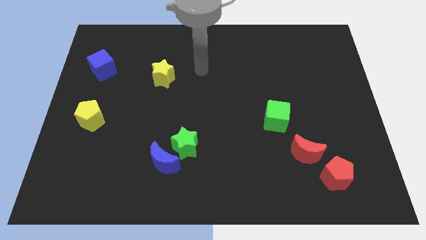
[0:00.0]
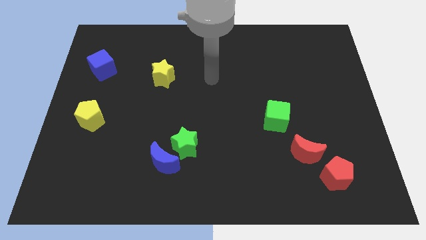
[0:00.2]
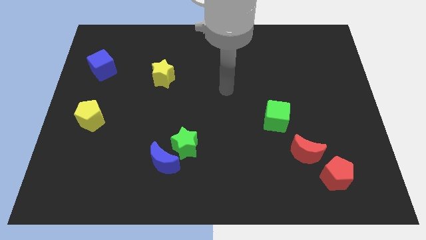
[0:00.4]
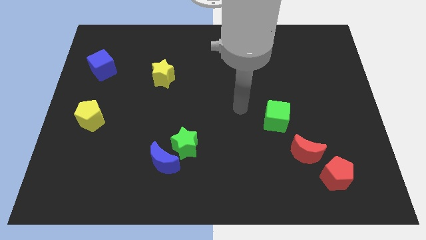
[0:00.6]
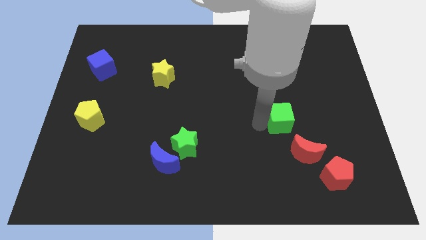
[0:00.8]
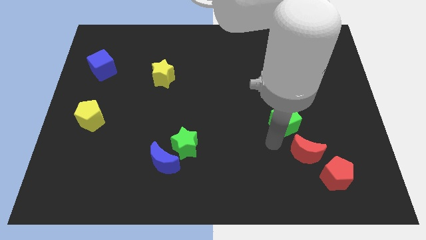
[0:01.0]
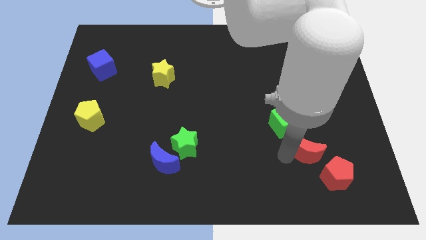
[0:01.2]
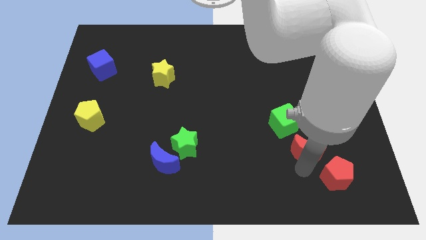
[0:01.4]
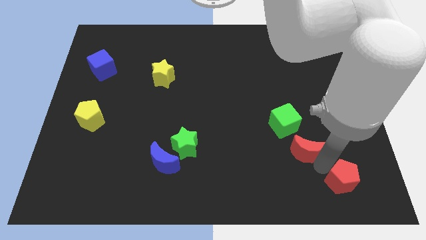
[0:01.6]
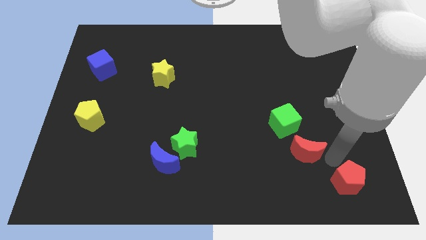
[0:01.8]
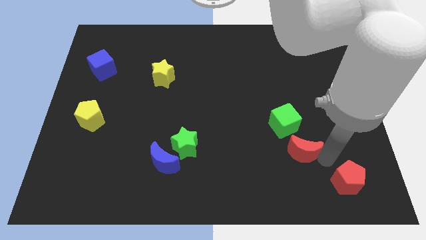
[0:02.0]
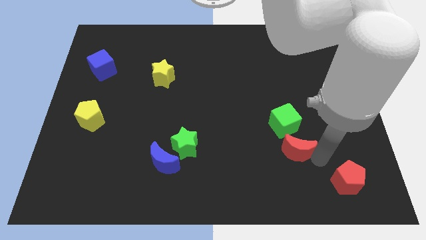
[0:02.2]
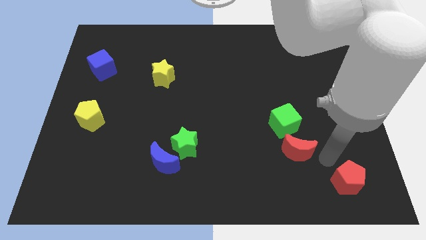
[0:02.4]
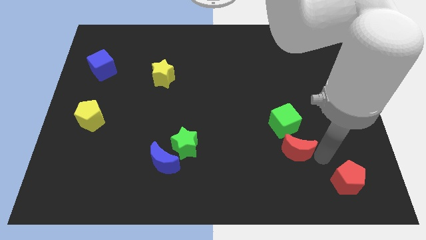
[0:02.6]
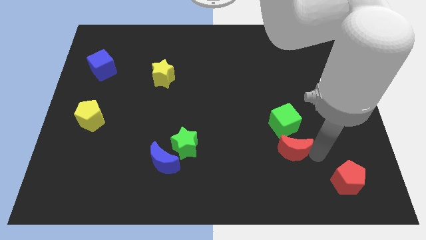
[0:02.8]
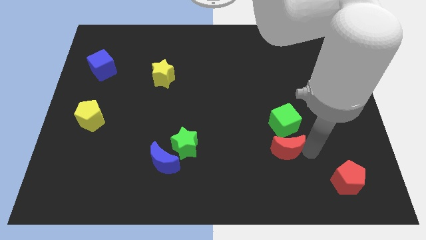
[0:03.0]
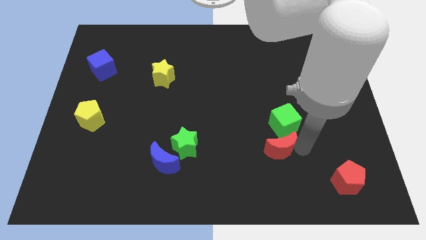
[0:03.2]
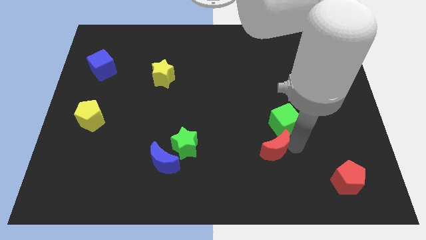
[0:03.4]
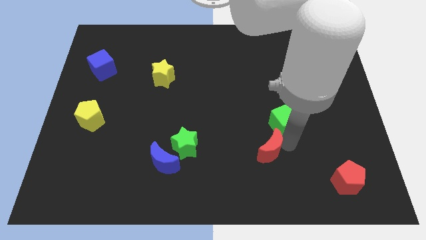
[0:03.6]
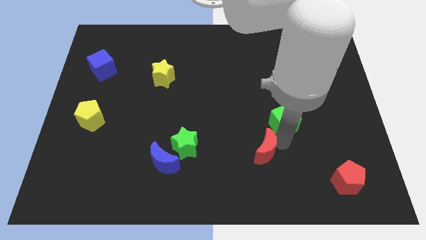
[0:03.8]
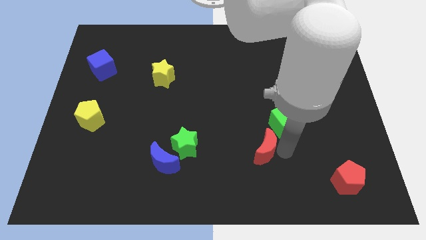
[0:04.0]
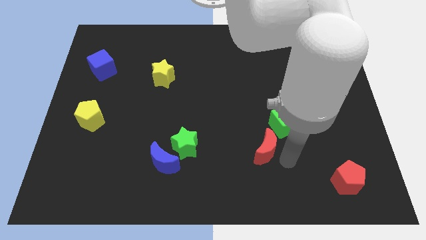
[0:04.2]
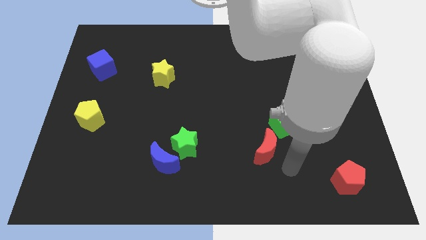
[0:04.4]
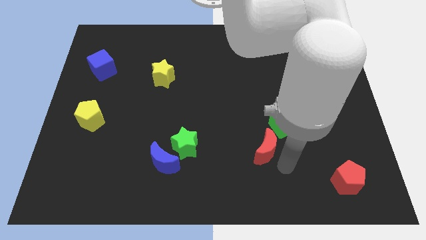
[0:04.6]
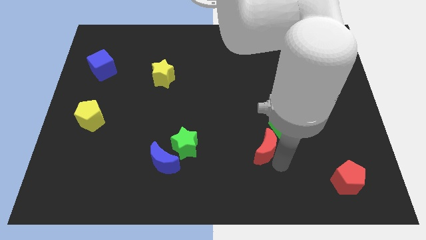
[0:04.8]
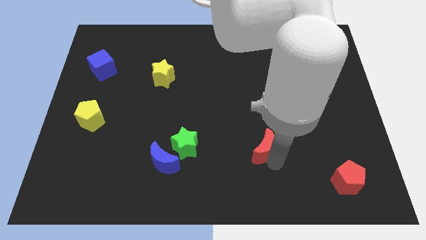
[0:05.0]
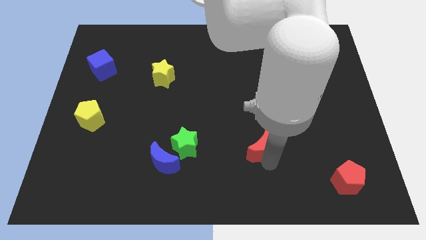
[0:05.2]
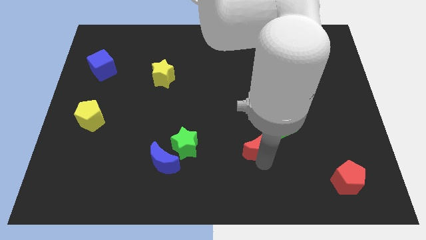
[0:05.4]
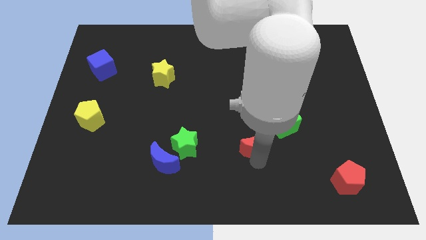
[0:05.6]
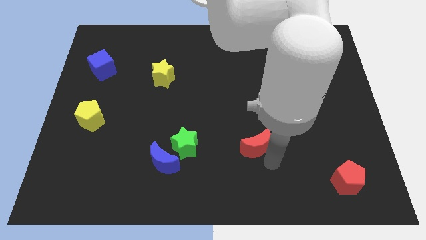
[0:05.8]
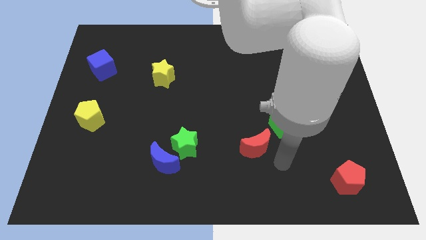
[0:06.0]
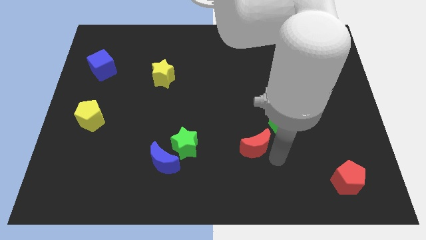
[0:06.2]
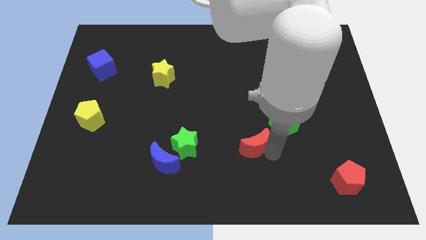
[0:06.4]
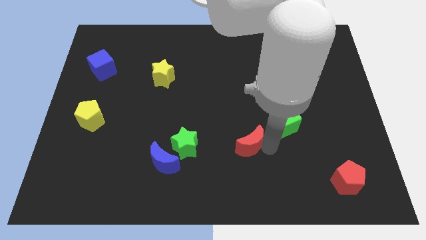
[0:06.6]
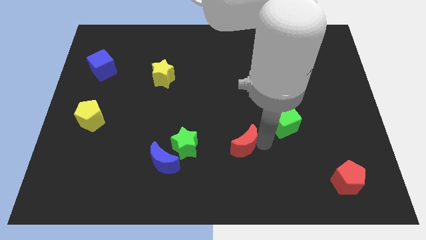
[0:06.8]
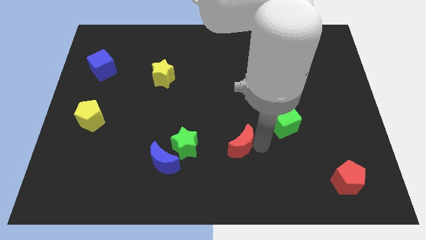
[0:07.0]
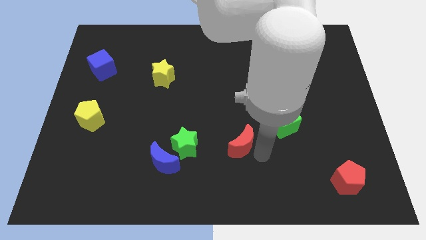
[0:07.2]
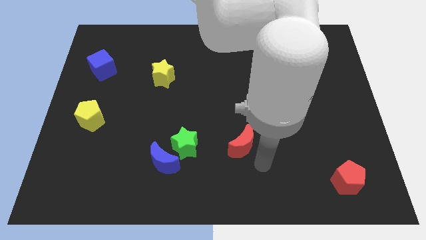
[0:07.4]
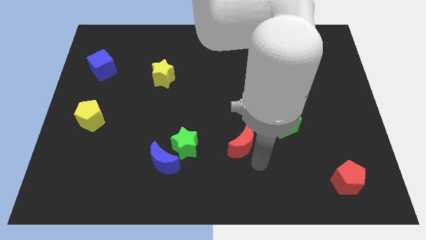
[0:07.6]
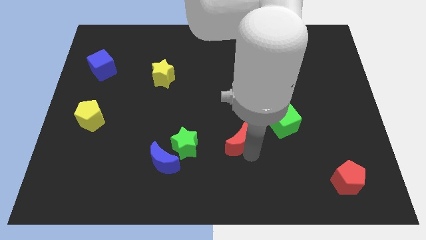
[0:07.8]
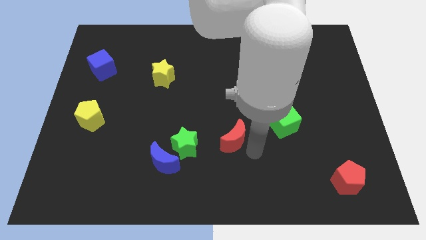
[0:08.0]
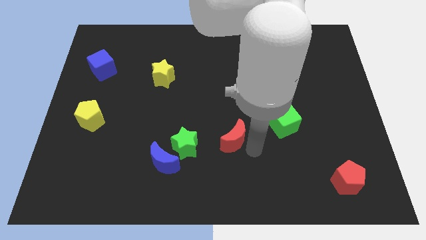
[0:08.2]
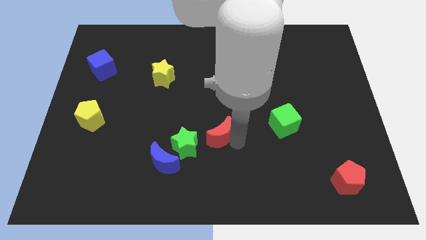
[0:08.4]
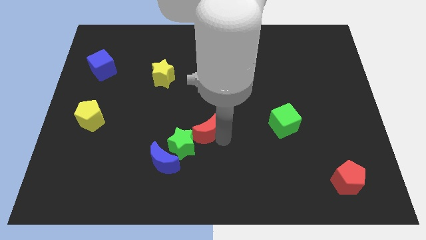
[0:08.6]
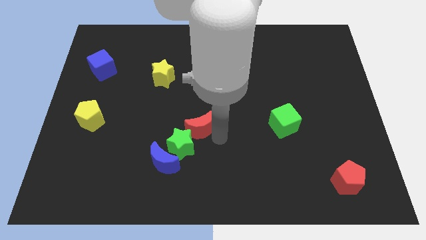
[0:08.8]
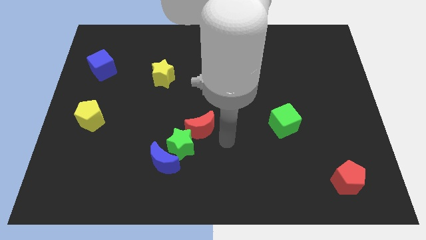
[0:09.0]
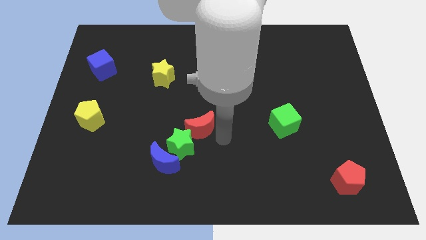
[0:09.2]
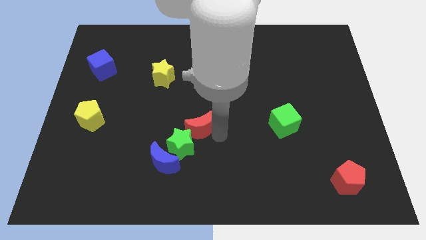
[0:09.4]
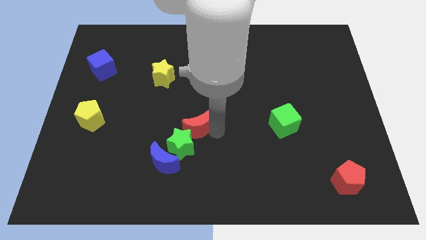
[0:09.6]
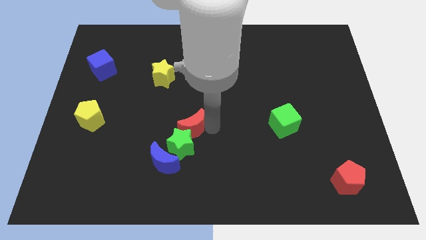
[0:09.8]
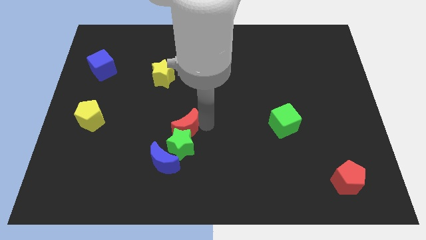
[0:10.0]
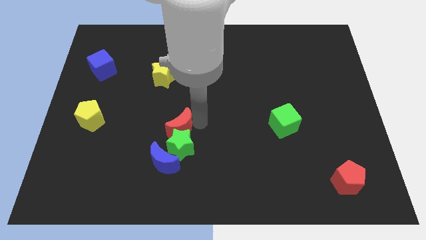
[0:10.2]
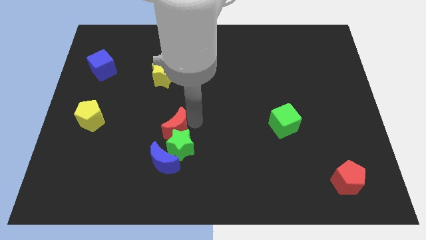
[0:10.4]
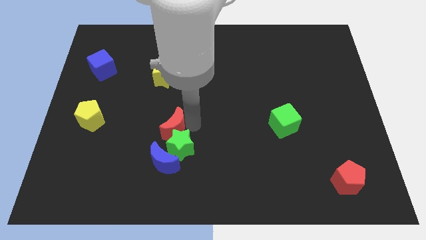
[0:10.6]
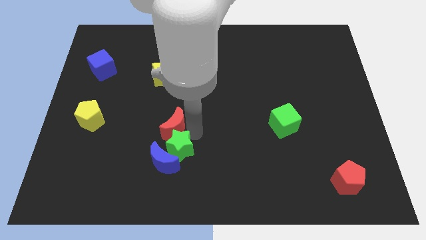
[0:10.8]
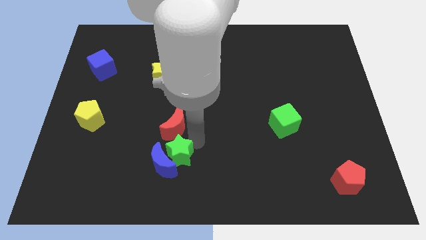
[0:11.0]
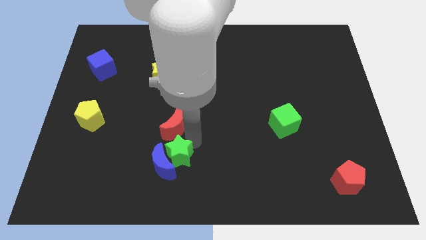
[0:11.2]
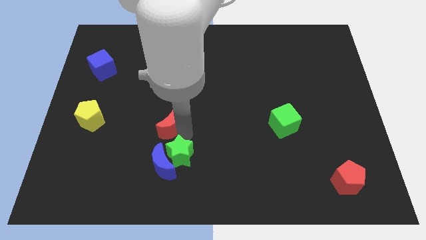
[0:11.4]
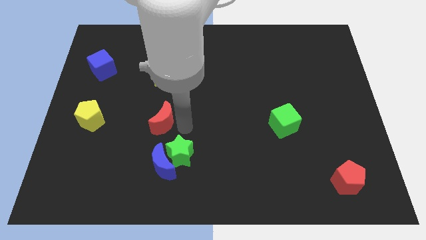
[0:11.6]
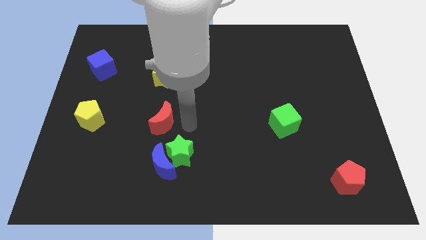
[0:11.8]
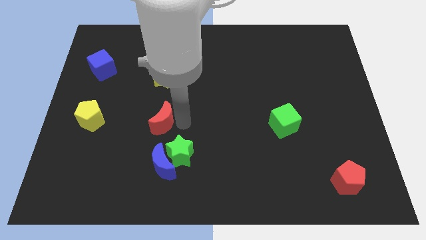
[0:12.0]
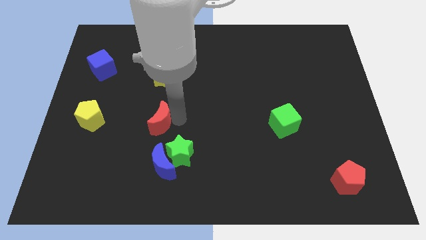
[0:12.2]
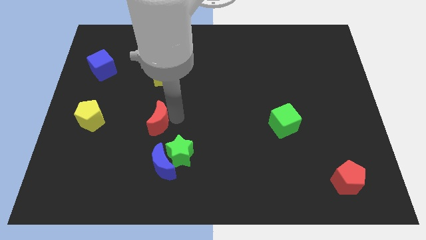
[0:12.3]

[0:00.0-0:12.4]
move the red moon right of the yellow pentagon

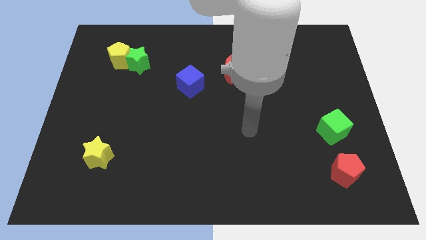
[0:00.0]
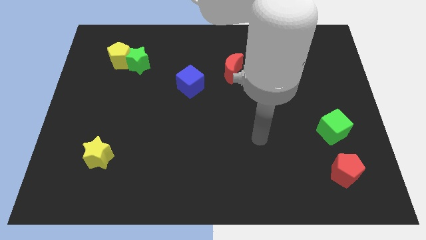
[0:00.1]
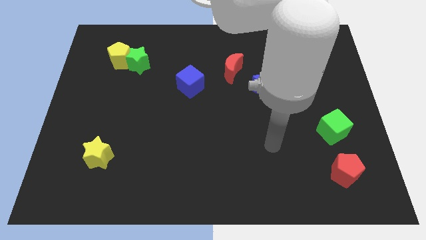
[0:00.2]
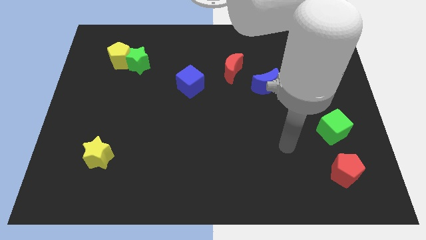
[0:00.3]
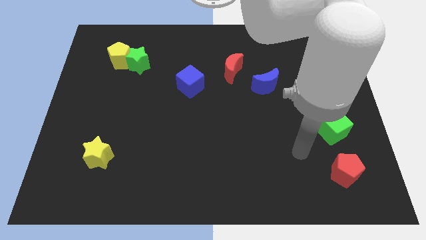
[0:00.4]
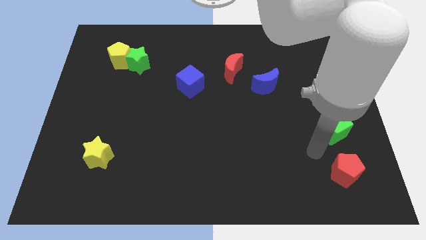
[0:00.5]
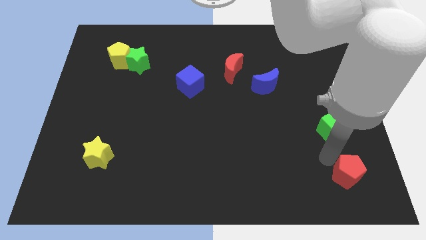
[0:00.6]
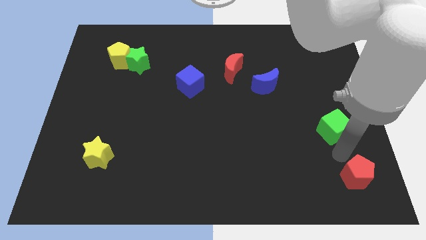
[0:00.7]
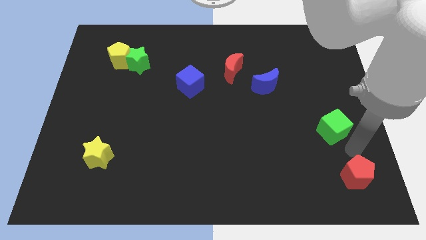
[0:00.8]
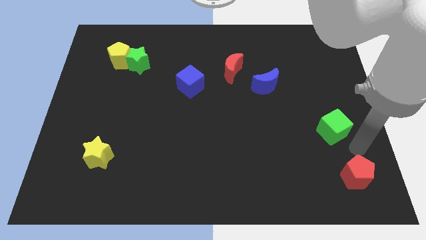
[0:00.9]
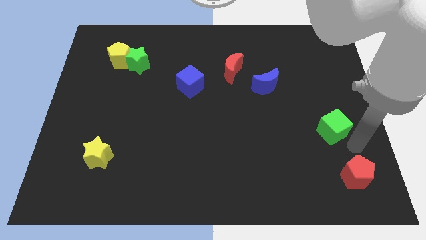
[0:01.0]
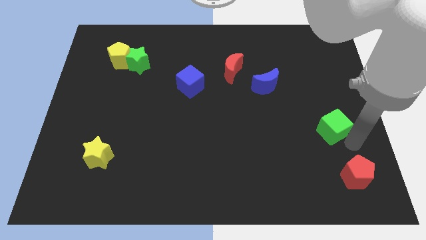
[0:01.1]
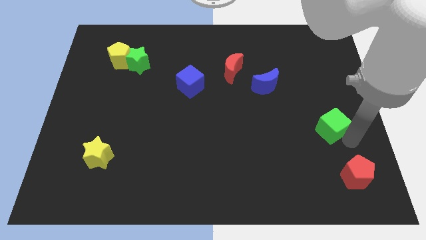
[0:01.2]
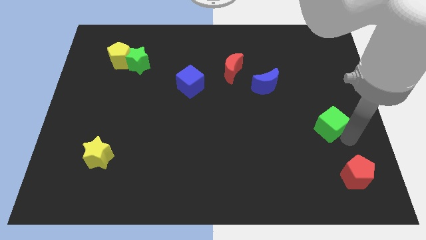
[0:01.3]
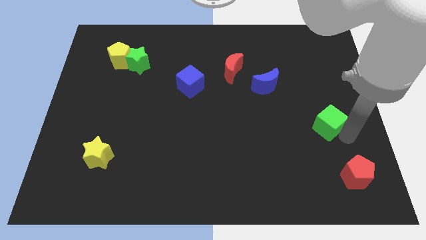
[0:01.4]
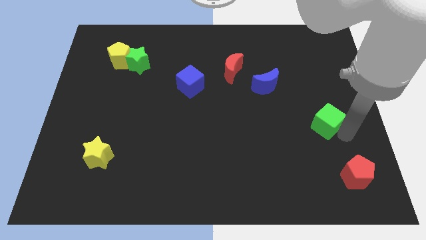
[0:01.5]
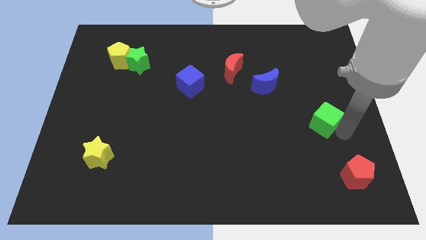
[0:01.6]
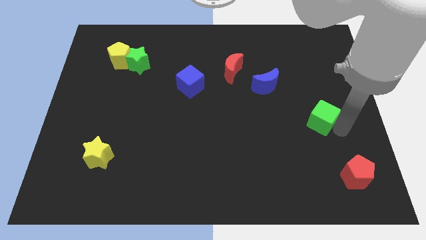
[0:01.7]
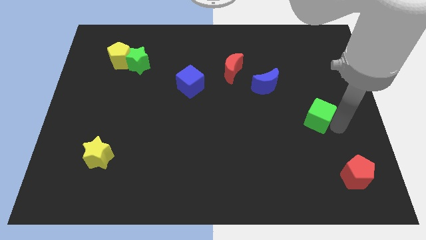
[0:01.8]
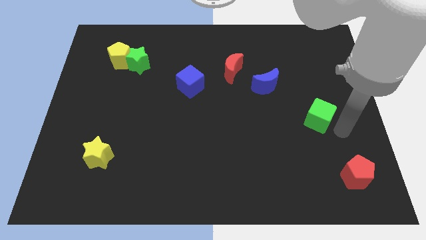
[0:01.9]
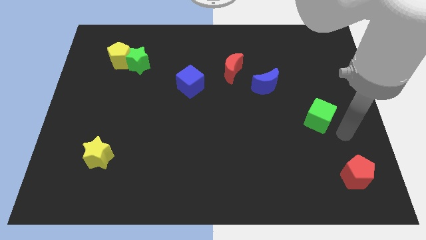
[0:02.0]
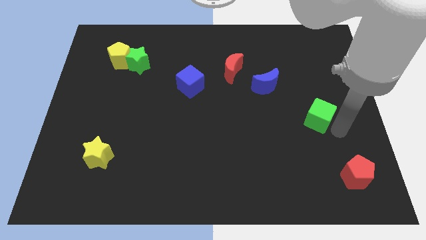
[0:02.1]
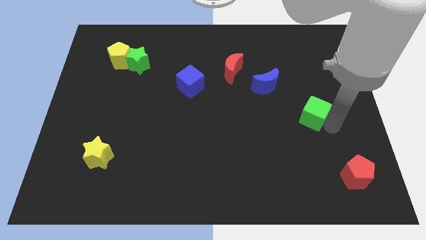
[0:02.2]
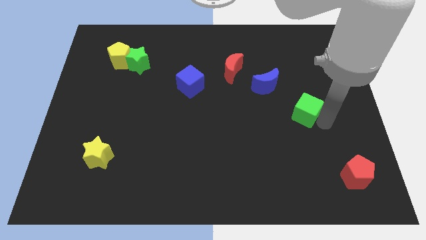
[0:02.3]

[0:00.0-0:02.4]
put the green cube to the bottom right of the blue moon
